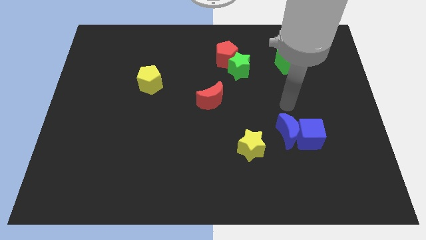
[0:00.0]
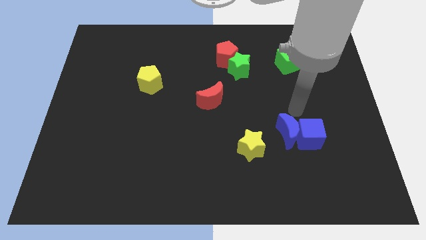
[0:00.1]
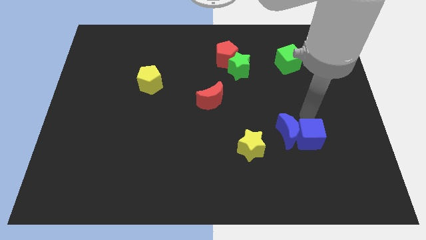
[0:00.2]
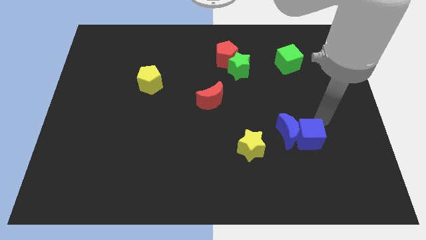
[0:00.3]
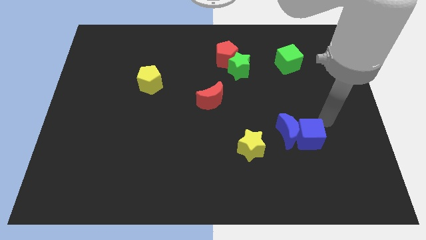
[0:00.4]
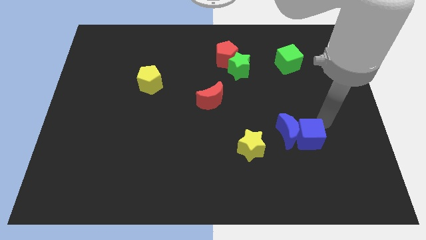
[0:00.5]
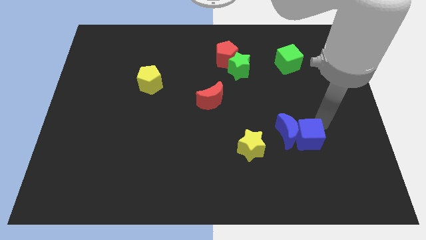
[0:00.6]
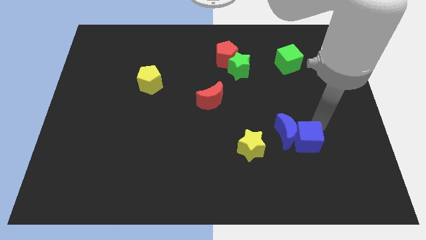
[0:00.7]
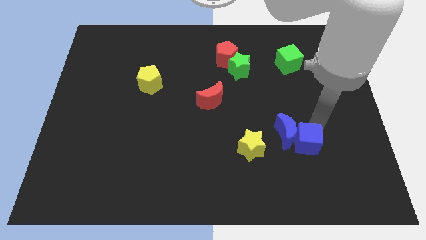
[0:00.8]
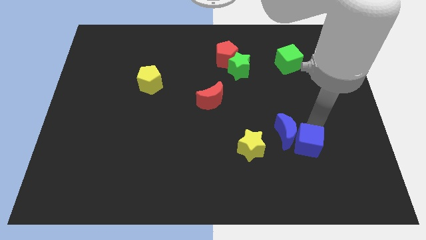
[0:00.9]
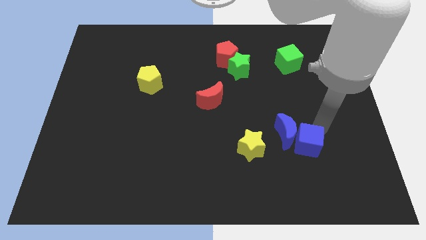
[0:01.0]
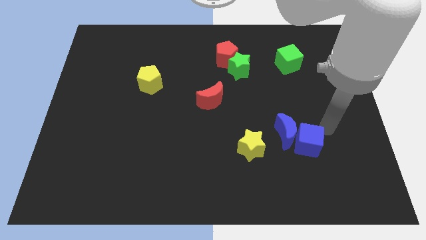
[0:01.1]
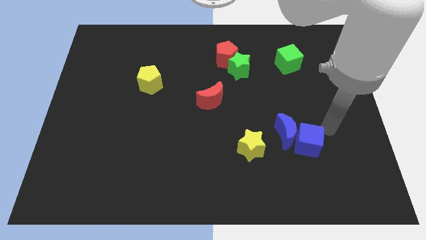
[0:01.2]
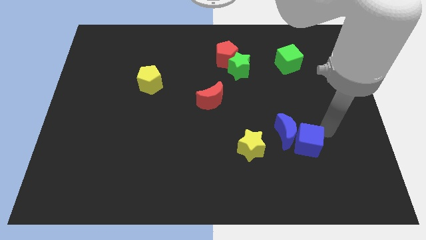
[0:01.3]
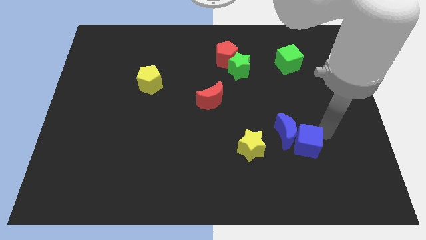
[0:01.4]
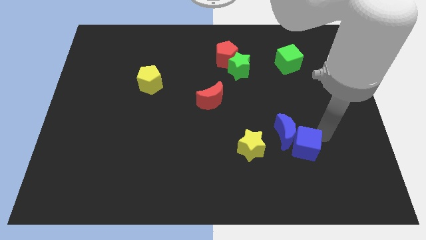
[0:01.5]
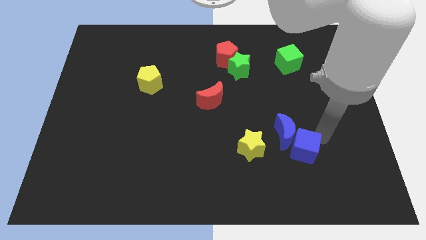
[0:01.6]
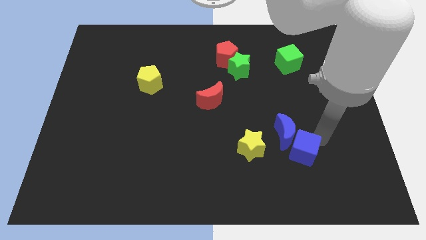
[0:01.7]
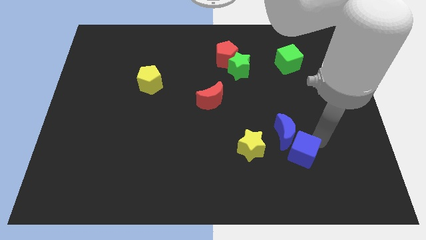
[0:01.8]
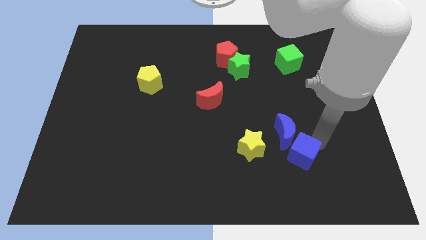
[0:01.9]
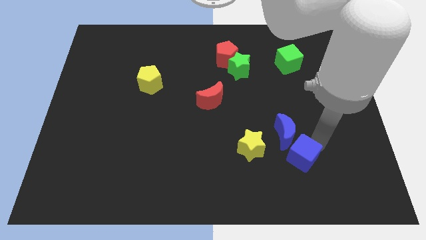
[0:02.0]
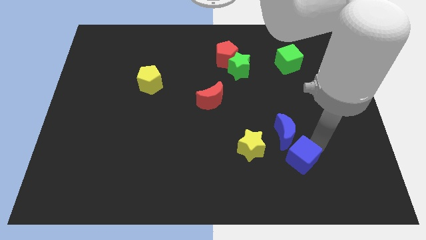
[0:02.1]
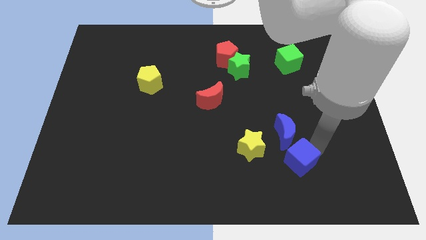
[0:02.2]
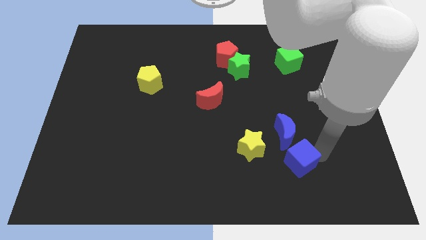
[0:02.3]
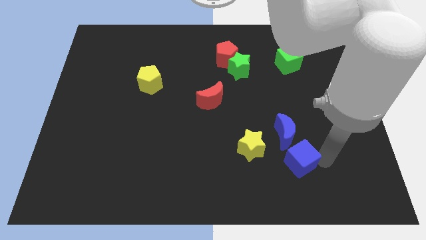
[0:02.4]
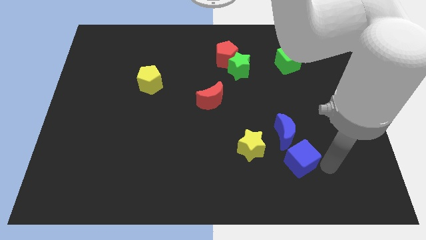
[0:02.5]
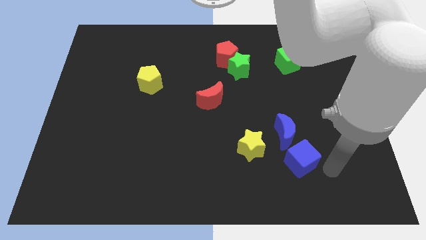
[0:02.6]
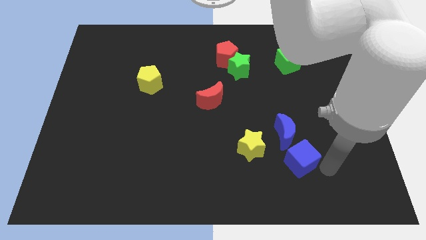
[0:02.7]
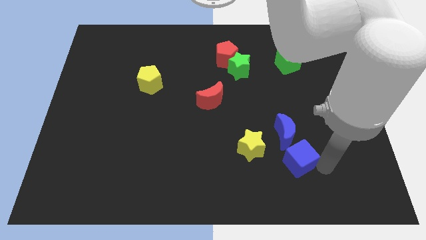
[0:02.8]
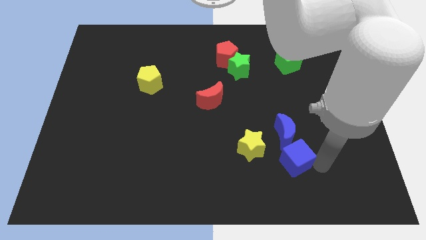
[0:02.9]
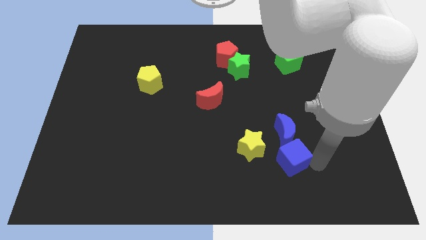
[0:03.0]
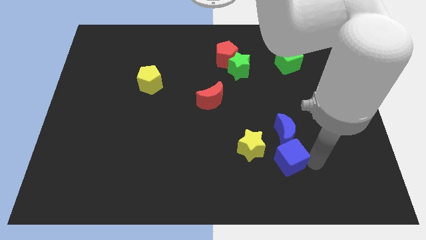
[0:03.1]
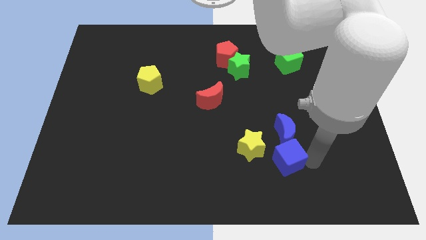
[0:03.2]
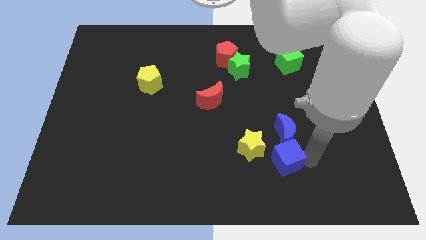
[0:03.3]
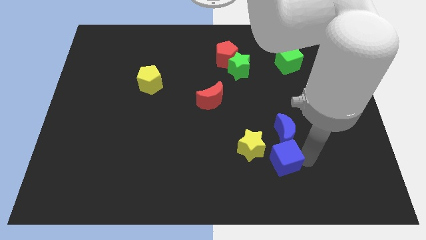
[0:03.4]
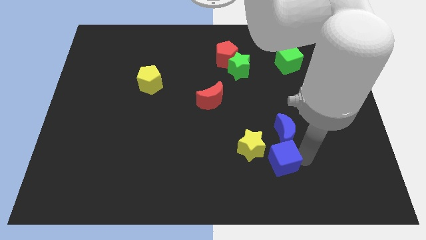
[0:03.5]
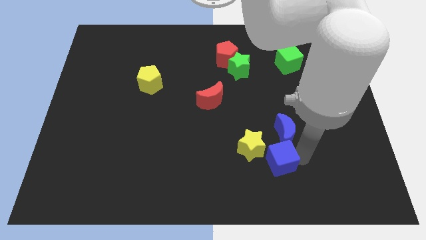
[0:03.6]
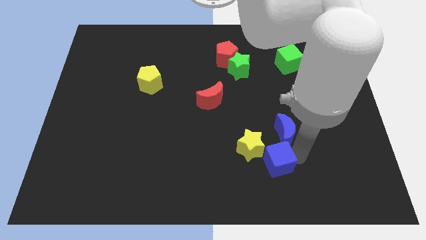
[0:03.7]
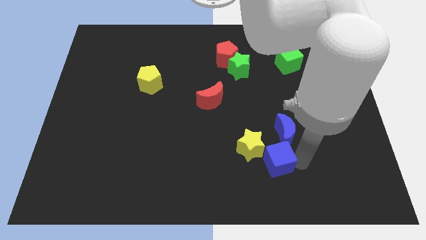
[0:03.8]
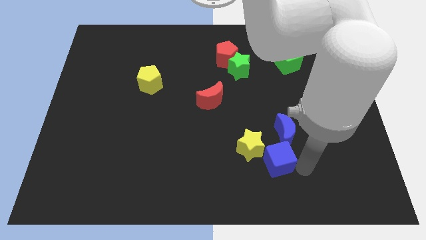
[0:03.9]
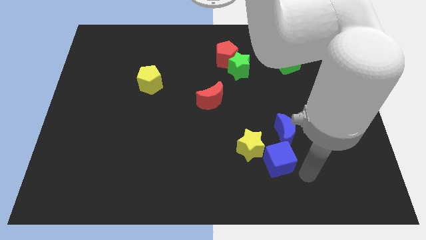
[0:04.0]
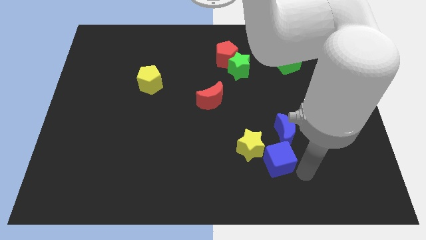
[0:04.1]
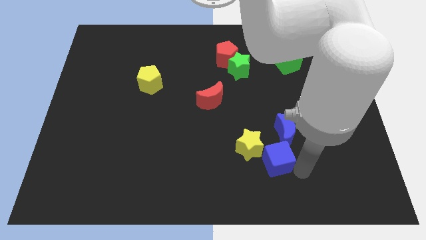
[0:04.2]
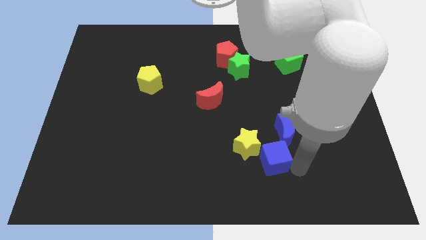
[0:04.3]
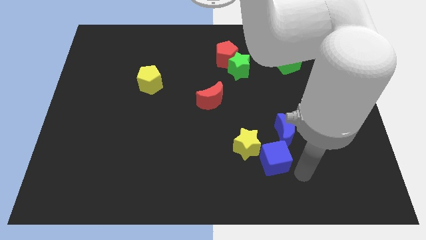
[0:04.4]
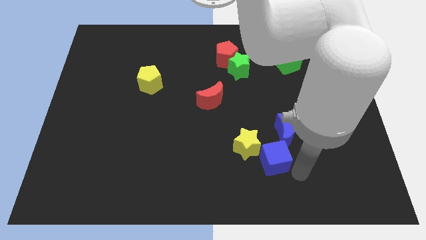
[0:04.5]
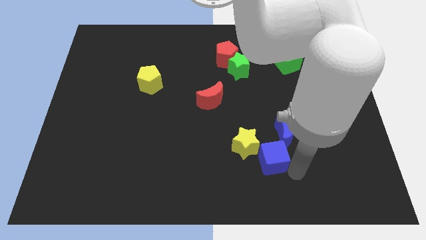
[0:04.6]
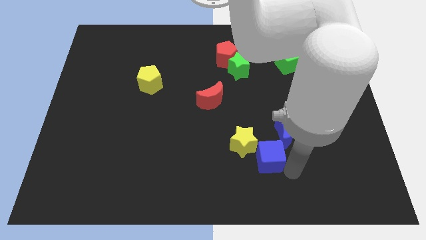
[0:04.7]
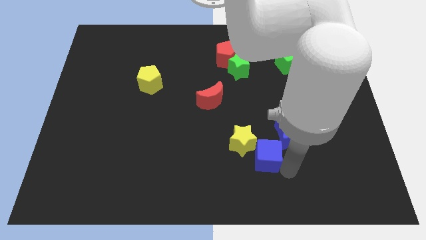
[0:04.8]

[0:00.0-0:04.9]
put the blue cube next to the yellow star

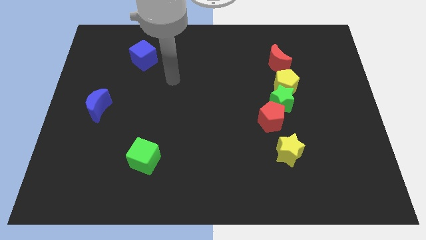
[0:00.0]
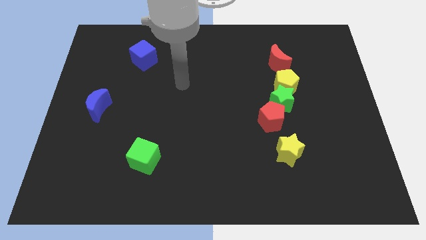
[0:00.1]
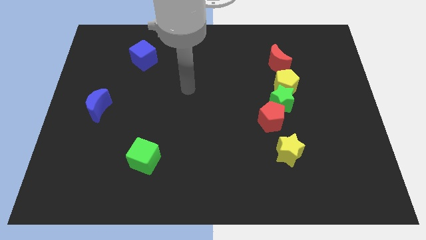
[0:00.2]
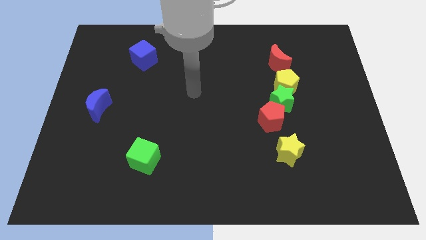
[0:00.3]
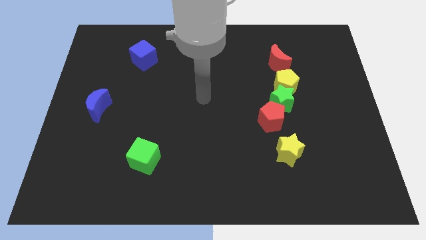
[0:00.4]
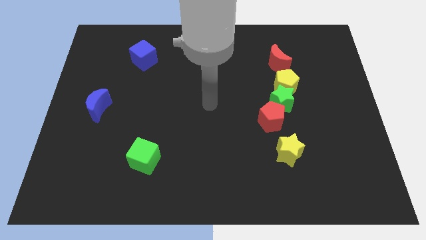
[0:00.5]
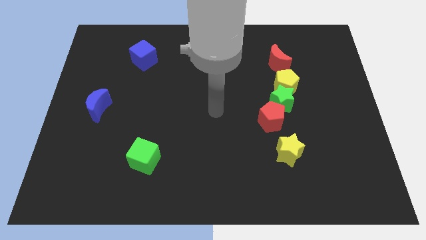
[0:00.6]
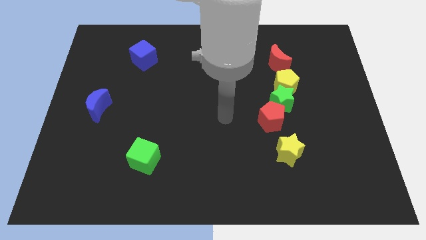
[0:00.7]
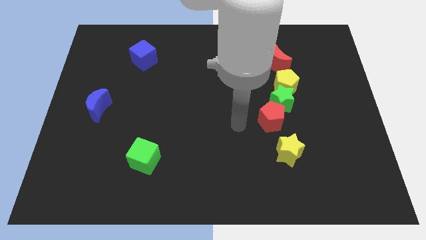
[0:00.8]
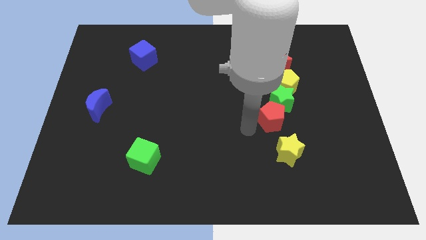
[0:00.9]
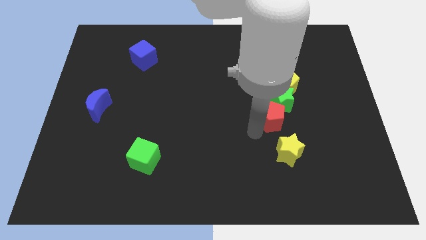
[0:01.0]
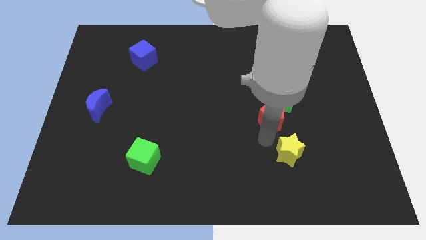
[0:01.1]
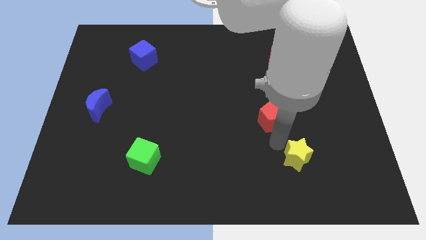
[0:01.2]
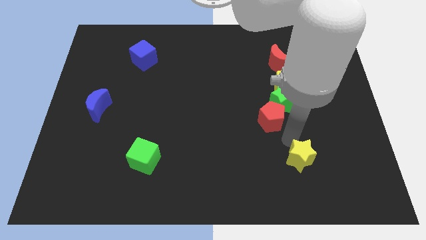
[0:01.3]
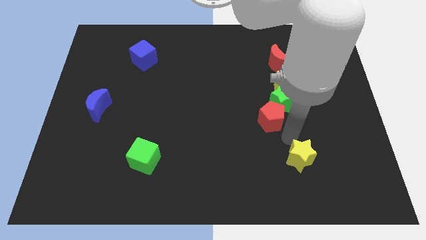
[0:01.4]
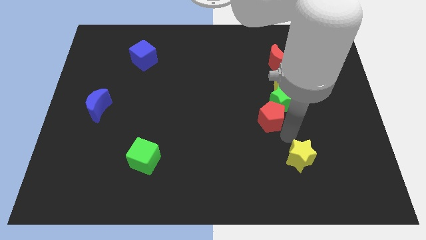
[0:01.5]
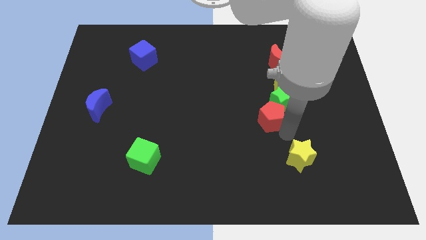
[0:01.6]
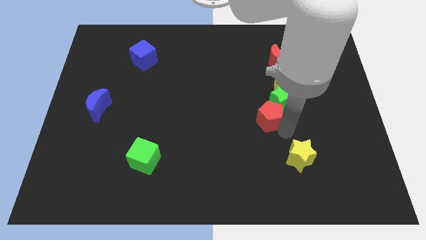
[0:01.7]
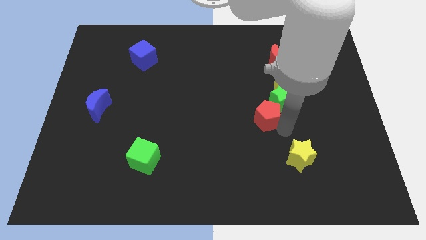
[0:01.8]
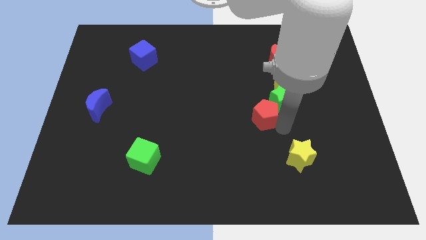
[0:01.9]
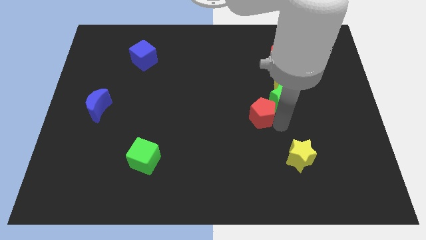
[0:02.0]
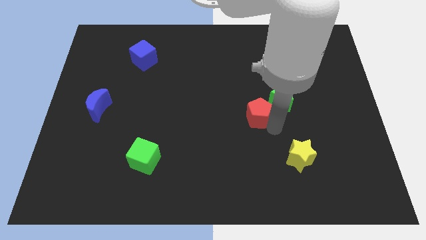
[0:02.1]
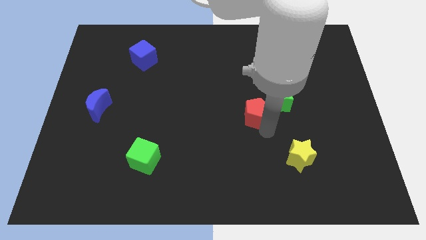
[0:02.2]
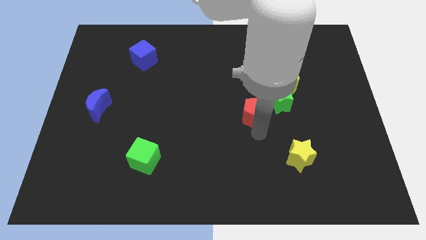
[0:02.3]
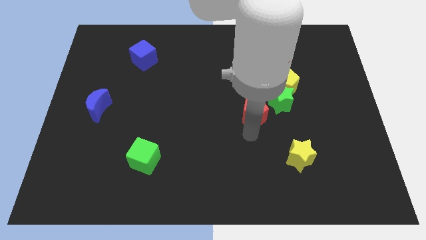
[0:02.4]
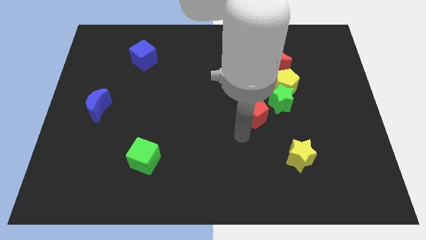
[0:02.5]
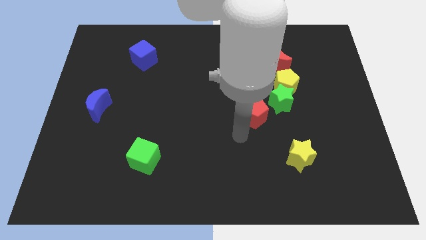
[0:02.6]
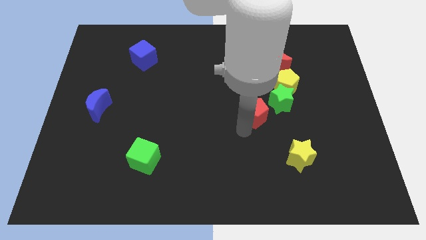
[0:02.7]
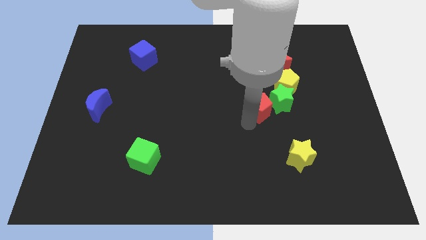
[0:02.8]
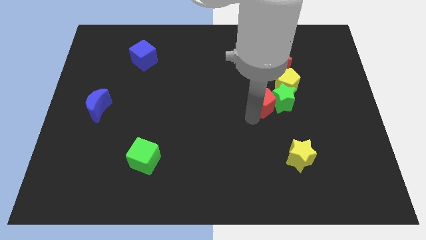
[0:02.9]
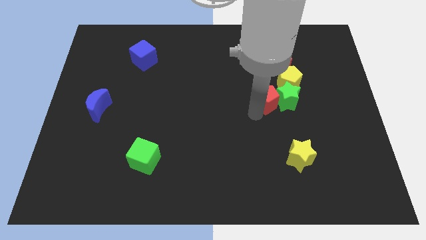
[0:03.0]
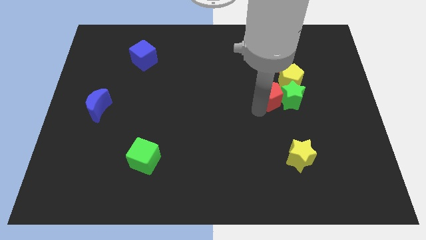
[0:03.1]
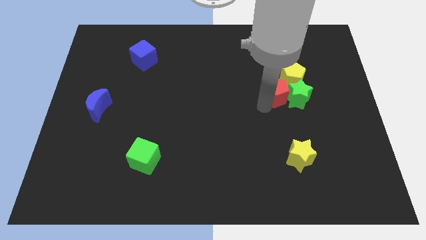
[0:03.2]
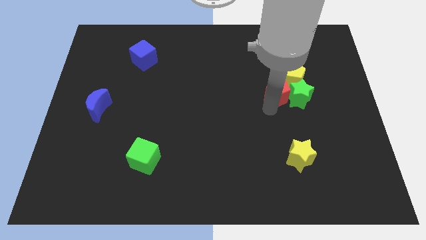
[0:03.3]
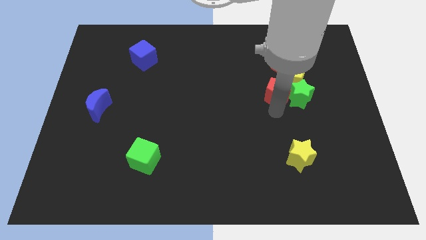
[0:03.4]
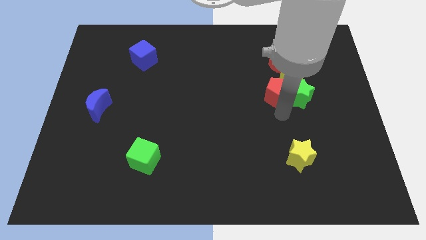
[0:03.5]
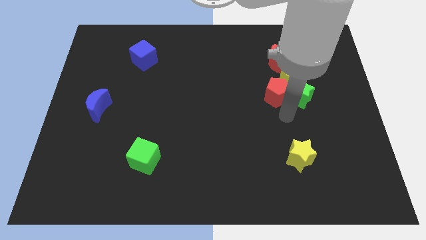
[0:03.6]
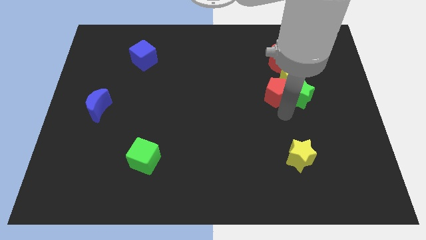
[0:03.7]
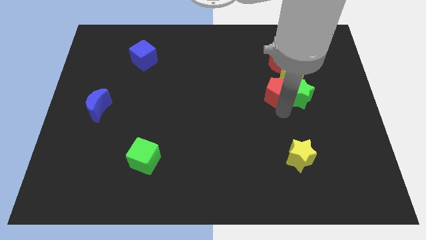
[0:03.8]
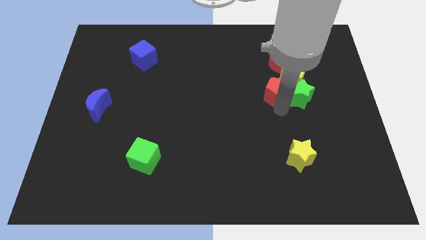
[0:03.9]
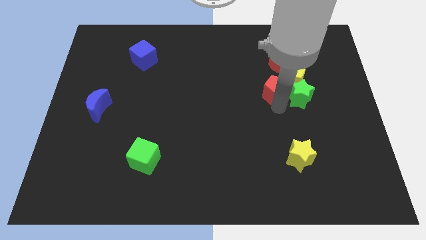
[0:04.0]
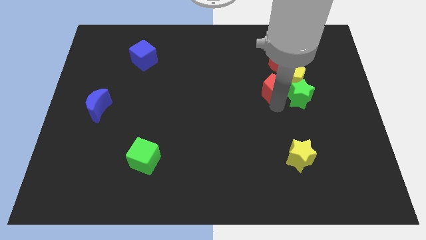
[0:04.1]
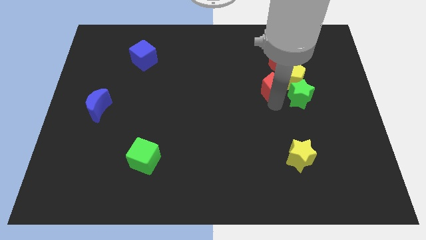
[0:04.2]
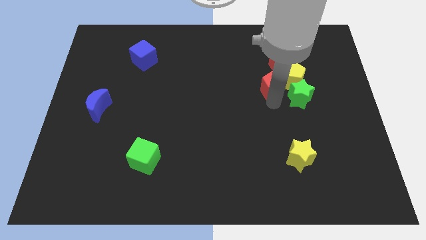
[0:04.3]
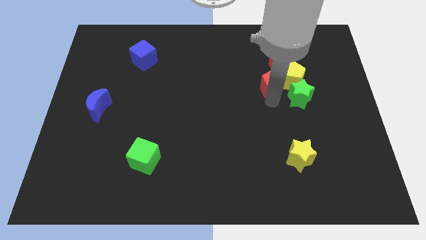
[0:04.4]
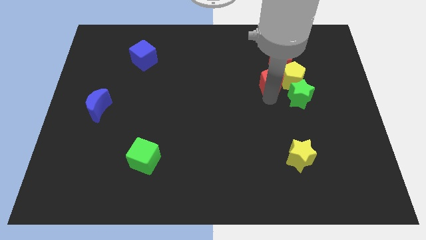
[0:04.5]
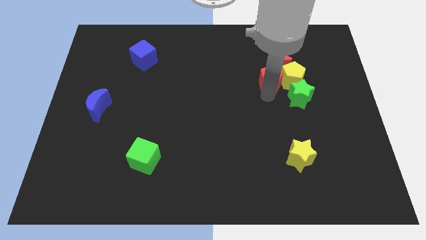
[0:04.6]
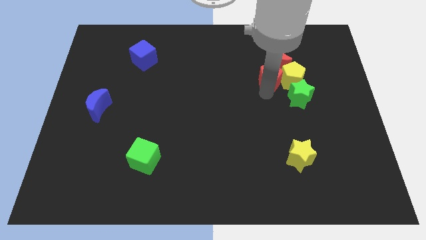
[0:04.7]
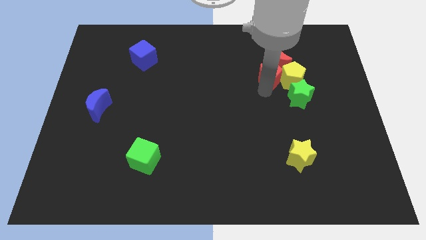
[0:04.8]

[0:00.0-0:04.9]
push the red pentagon to the red moon
